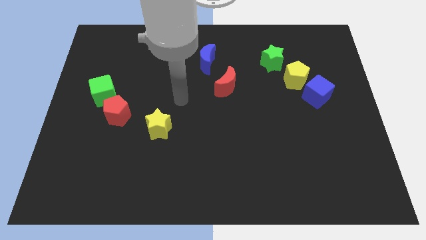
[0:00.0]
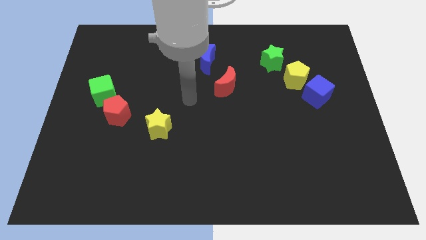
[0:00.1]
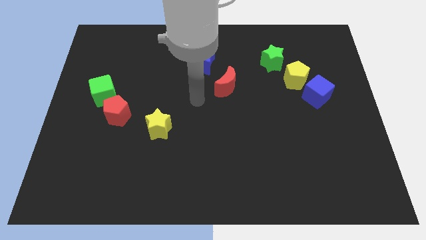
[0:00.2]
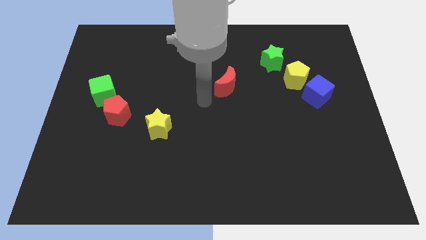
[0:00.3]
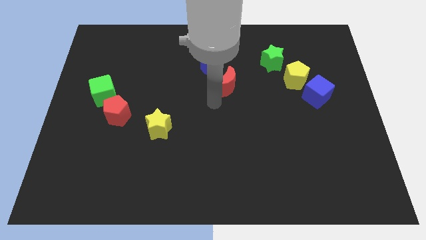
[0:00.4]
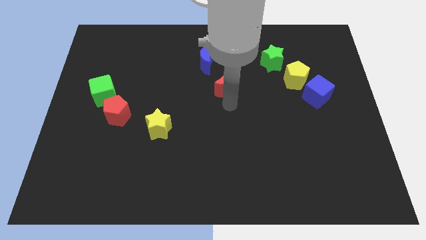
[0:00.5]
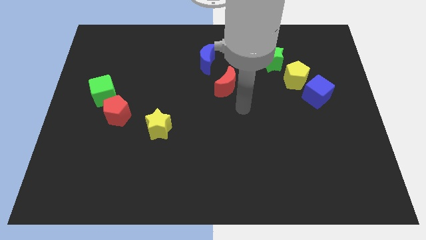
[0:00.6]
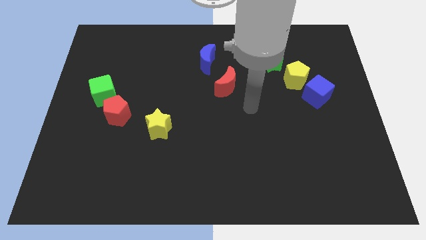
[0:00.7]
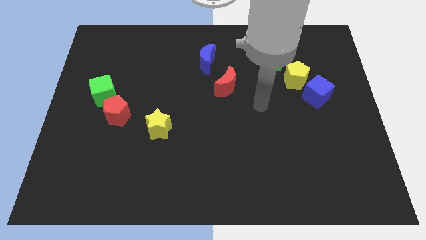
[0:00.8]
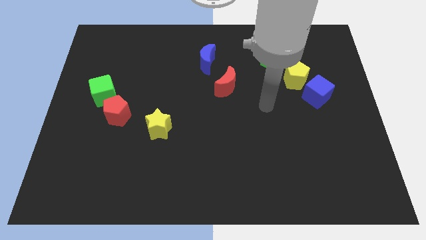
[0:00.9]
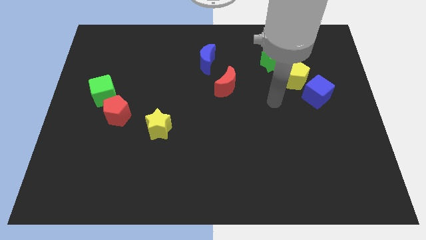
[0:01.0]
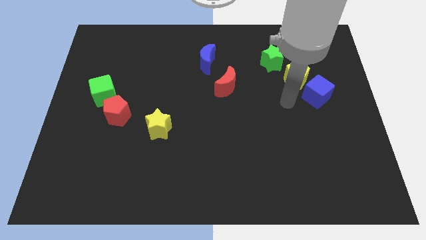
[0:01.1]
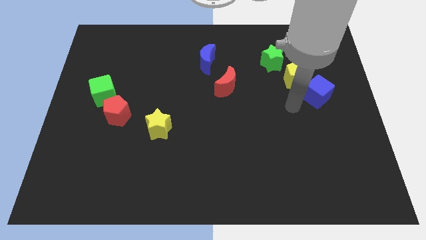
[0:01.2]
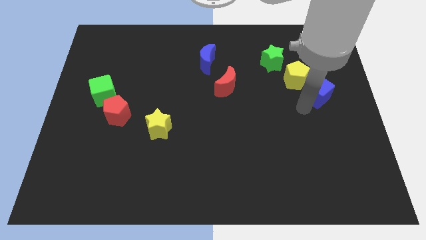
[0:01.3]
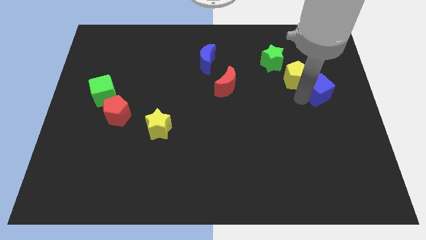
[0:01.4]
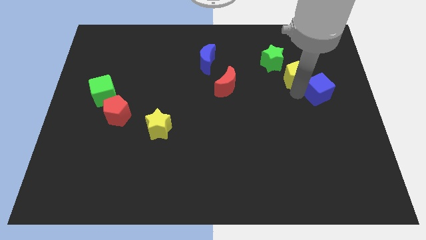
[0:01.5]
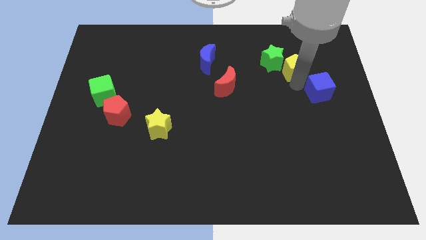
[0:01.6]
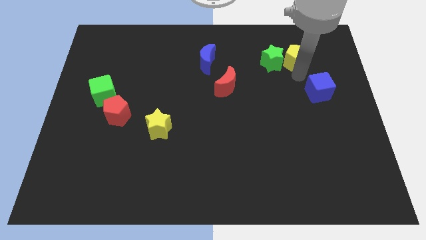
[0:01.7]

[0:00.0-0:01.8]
separate the blue cube from the yellow pentagon

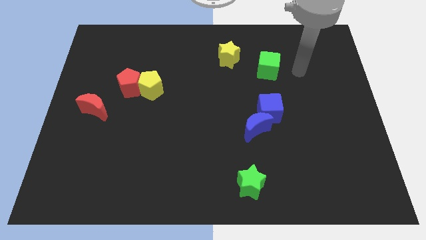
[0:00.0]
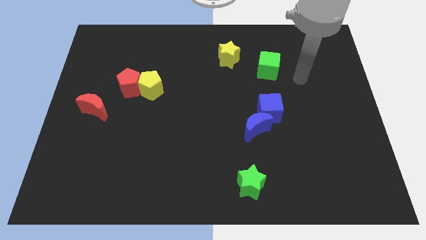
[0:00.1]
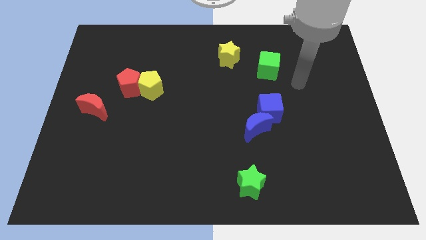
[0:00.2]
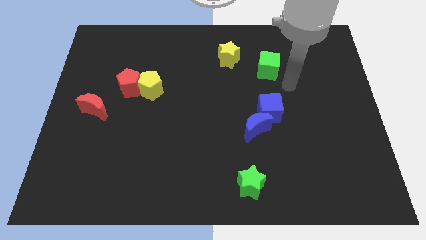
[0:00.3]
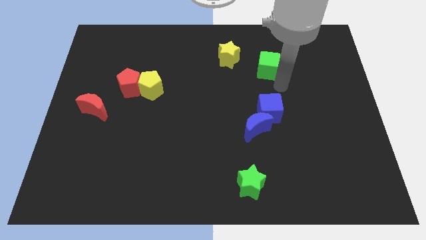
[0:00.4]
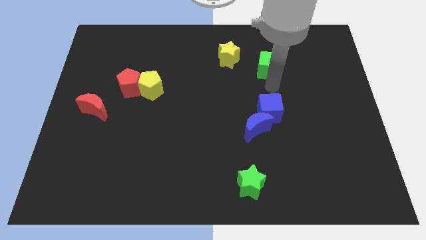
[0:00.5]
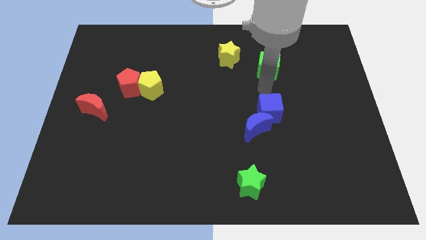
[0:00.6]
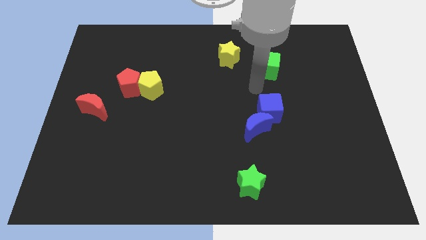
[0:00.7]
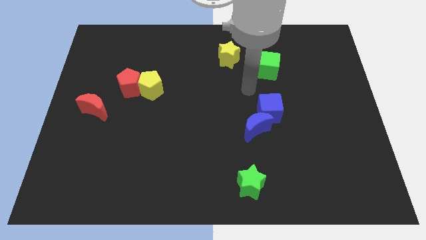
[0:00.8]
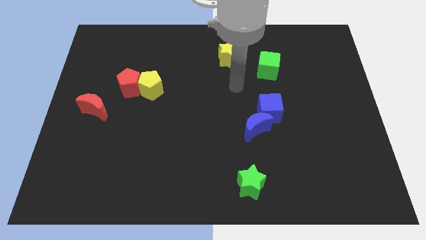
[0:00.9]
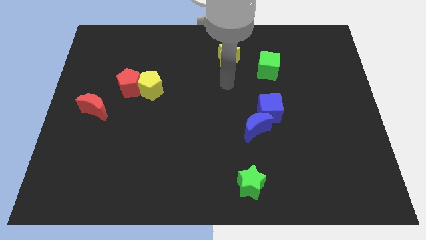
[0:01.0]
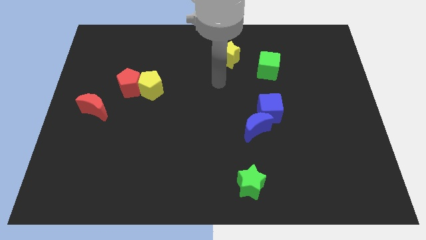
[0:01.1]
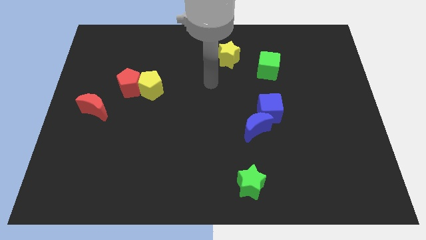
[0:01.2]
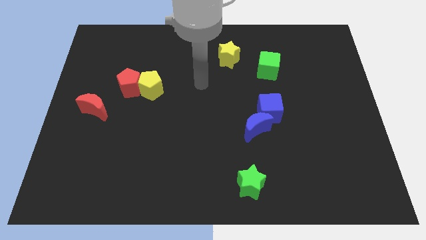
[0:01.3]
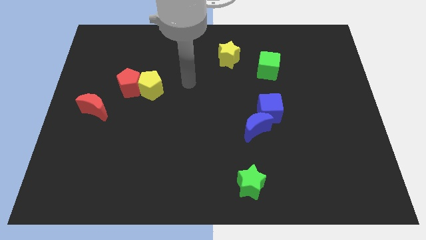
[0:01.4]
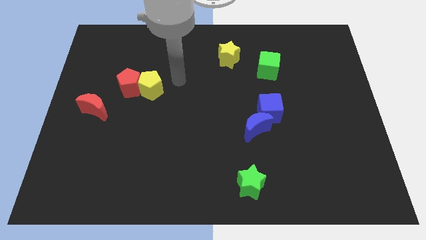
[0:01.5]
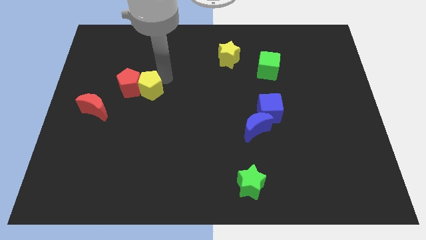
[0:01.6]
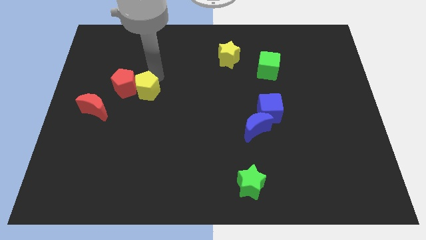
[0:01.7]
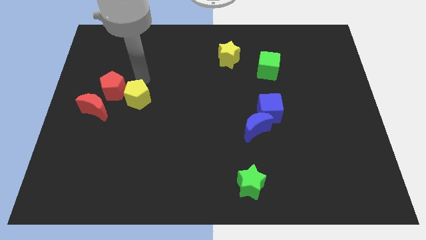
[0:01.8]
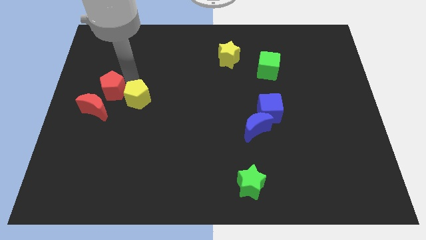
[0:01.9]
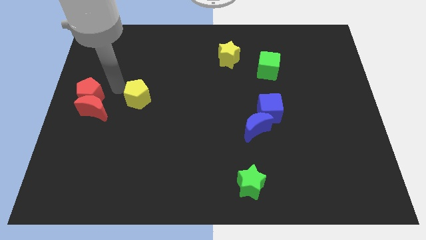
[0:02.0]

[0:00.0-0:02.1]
pull the yellow pentagon apart from the red pentagon

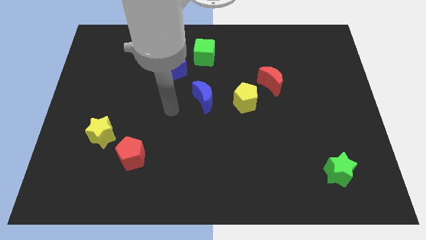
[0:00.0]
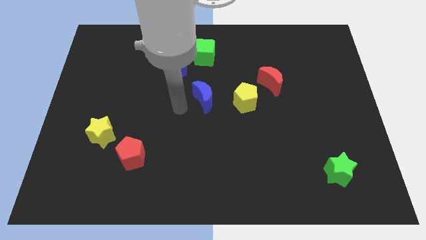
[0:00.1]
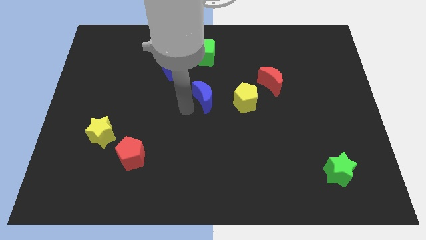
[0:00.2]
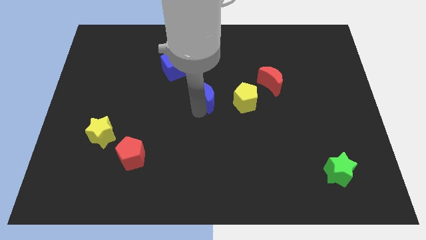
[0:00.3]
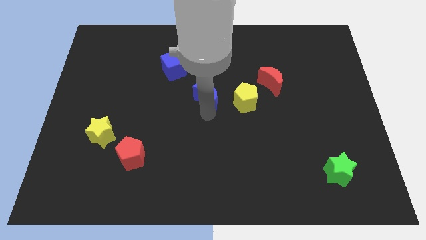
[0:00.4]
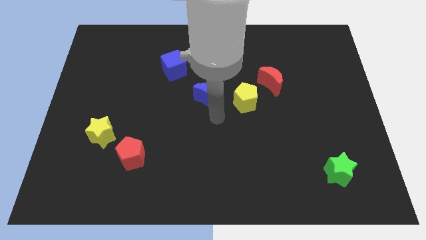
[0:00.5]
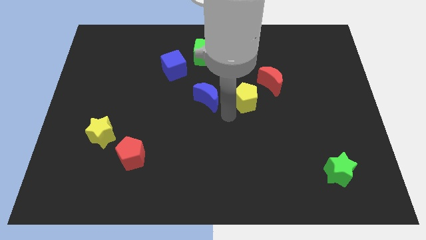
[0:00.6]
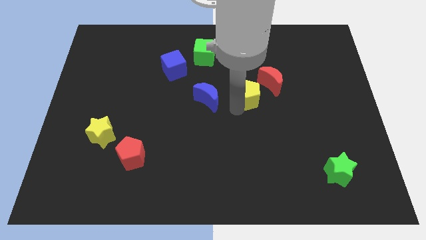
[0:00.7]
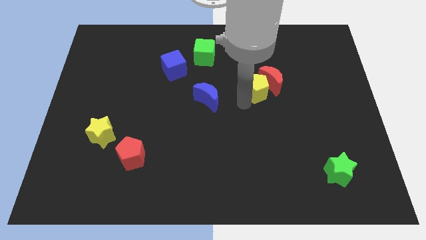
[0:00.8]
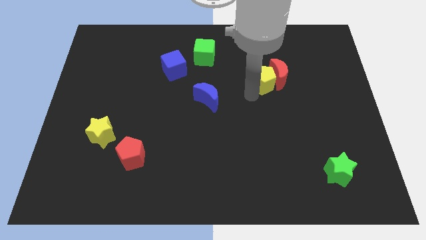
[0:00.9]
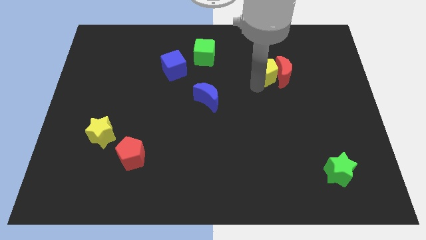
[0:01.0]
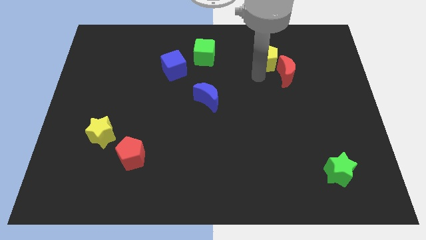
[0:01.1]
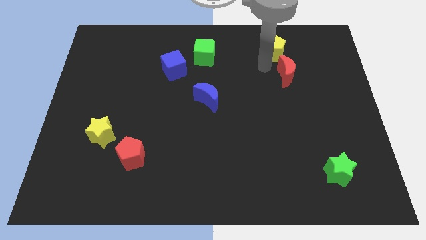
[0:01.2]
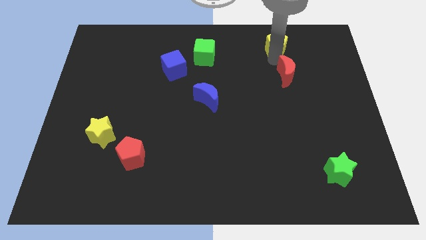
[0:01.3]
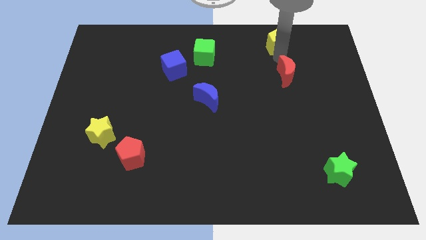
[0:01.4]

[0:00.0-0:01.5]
pull the red moon apart from the yellow pentagon

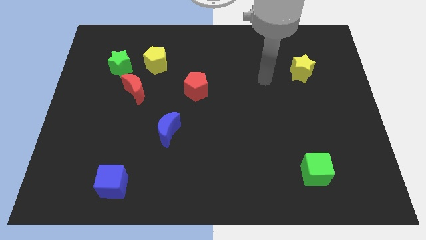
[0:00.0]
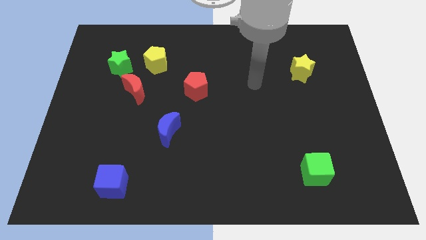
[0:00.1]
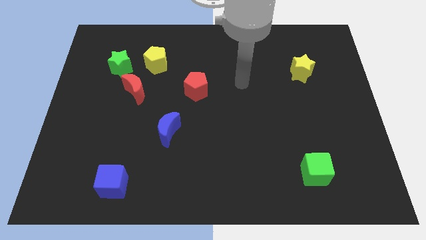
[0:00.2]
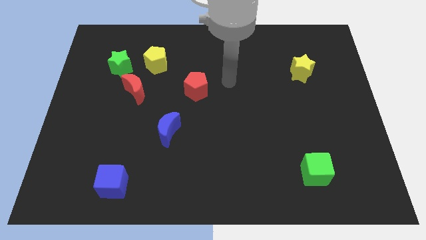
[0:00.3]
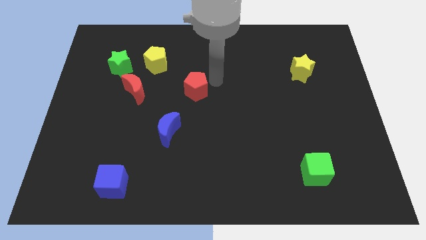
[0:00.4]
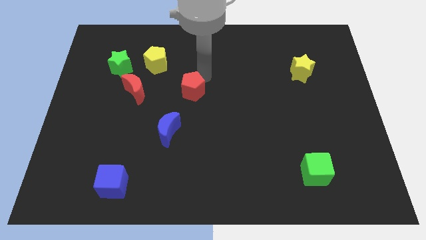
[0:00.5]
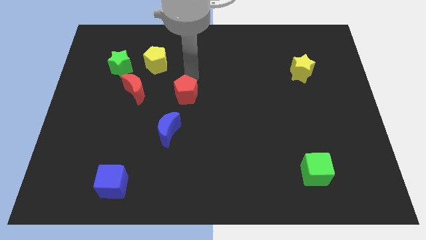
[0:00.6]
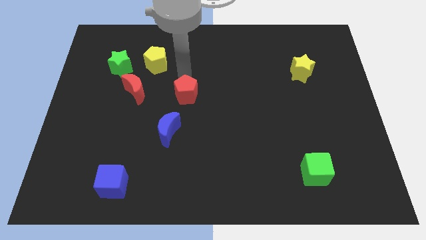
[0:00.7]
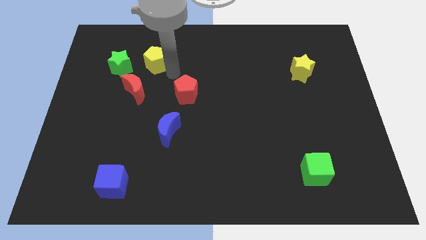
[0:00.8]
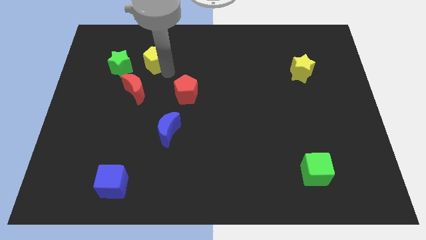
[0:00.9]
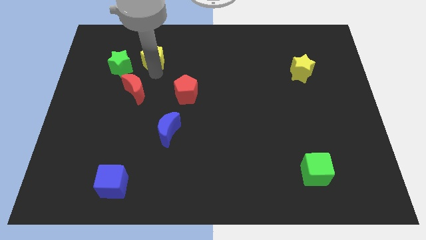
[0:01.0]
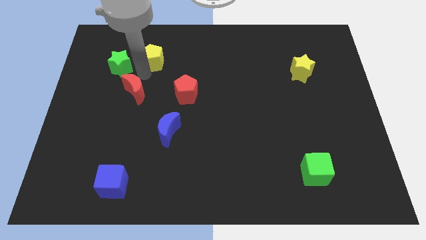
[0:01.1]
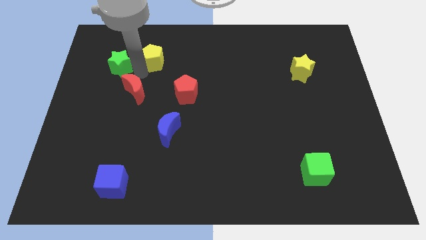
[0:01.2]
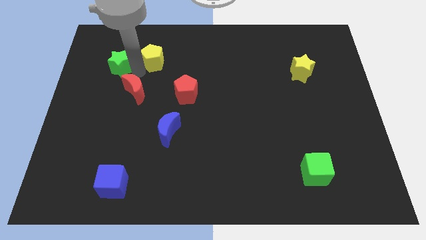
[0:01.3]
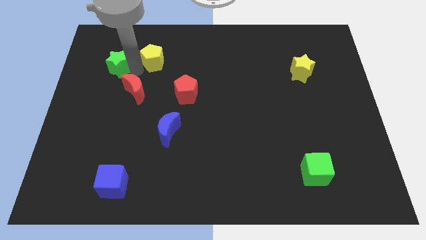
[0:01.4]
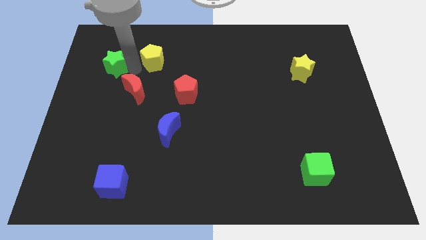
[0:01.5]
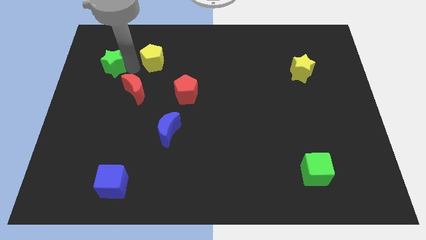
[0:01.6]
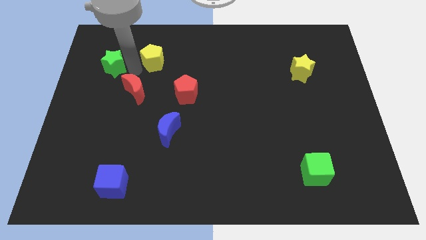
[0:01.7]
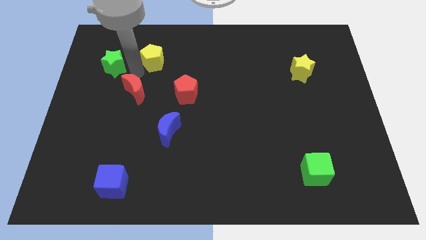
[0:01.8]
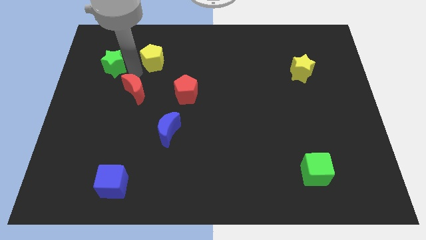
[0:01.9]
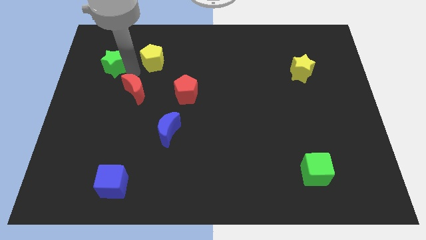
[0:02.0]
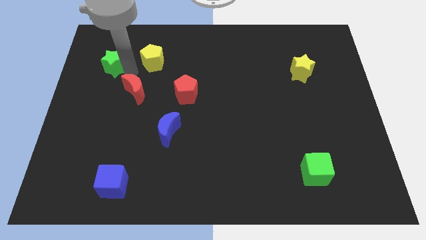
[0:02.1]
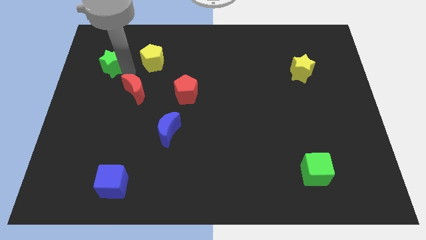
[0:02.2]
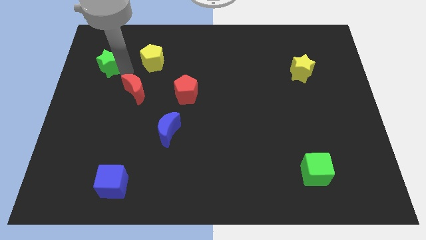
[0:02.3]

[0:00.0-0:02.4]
separate the green star from the yellow pentagon and red moon

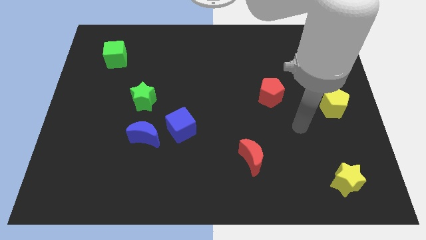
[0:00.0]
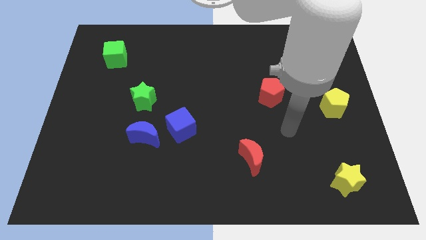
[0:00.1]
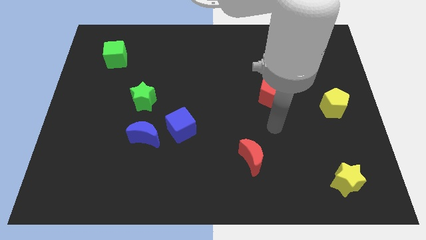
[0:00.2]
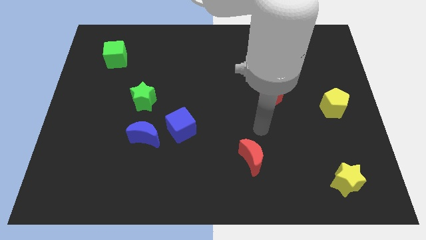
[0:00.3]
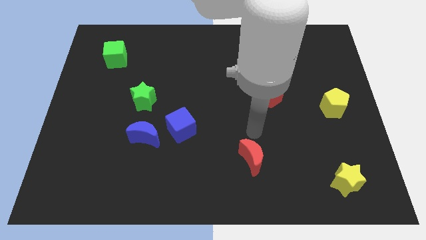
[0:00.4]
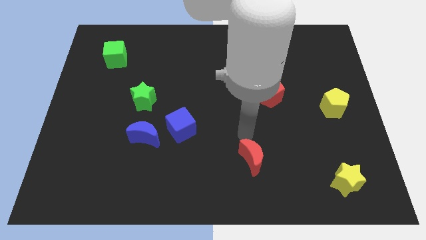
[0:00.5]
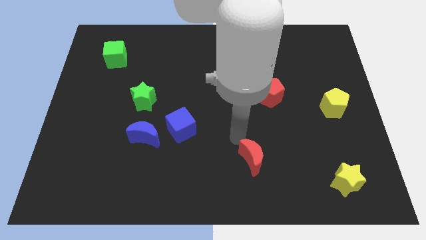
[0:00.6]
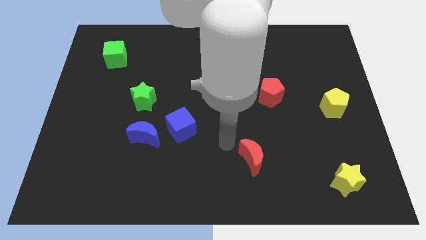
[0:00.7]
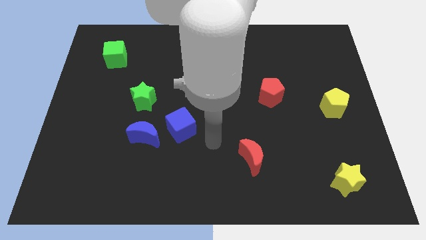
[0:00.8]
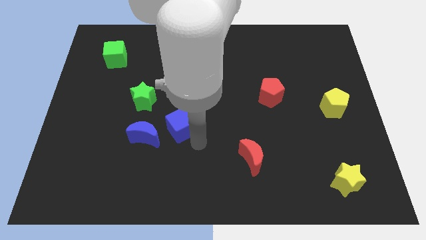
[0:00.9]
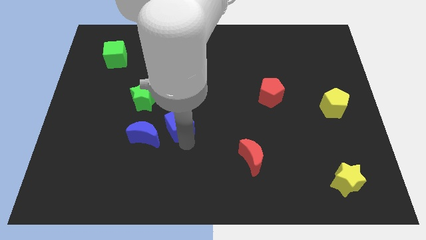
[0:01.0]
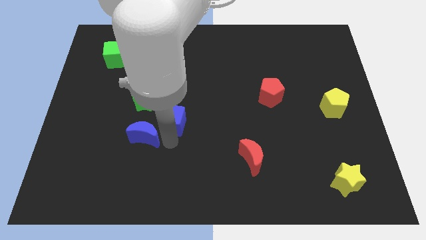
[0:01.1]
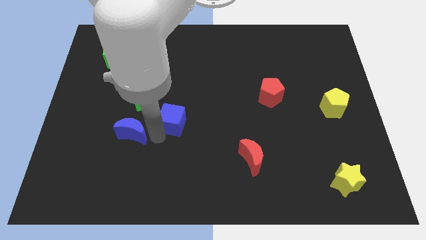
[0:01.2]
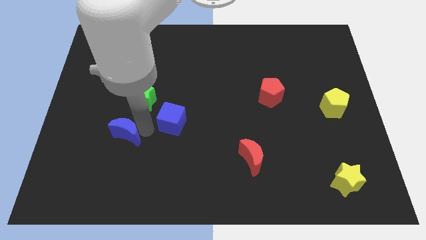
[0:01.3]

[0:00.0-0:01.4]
pull the blue cube apart from the blue moon

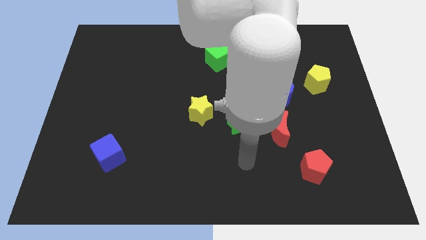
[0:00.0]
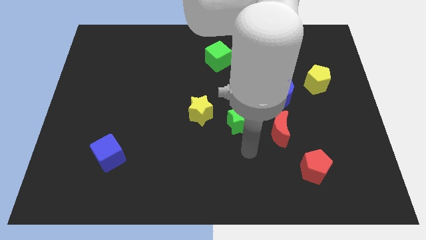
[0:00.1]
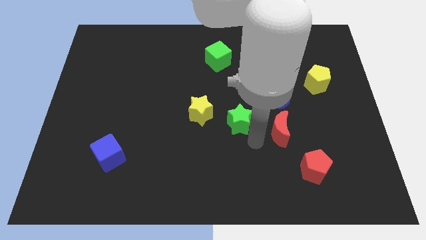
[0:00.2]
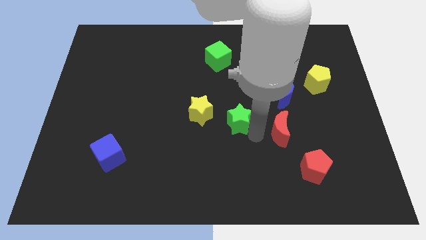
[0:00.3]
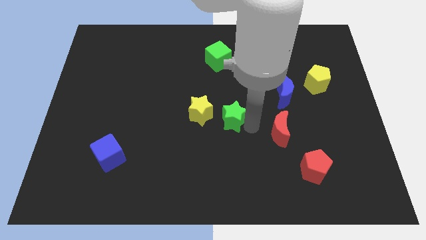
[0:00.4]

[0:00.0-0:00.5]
separate the red moon from the green star
